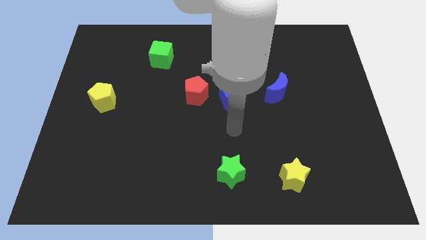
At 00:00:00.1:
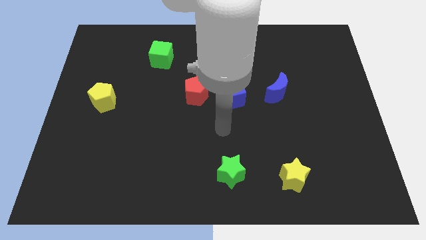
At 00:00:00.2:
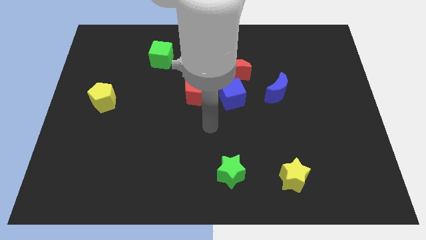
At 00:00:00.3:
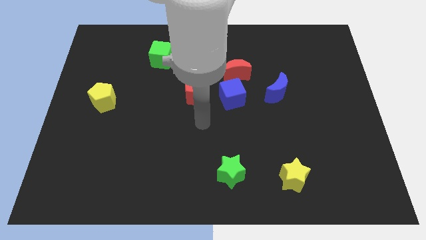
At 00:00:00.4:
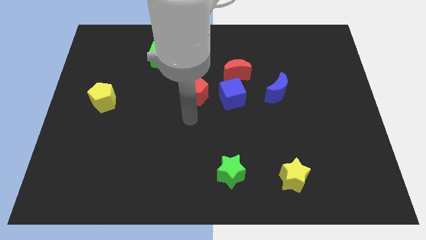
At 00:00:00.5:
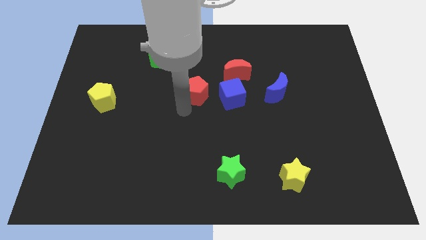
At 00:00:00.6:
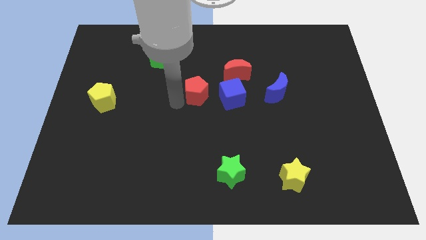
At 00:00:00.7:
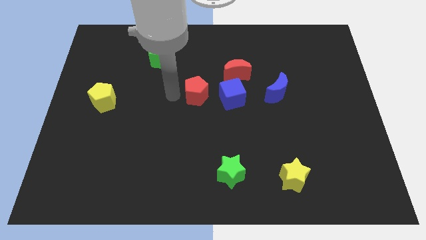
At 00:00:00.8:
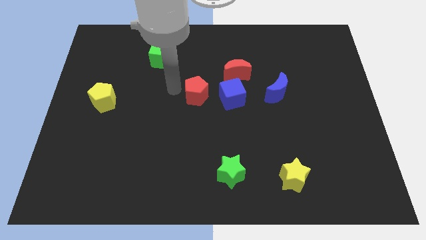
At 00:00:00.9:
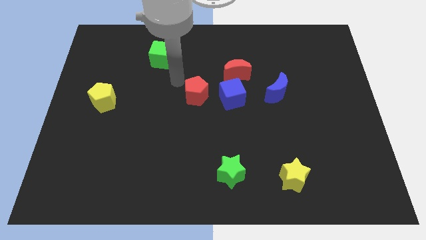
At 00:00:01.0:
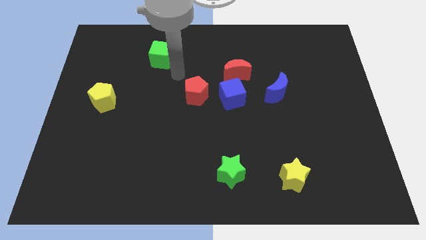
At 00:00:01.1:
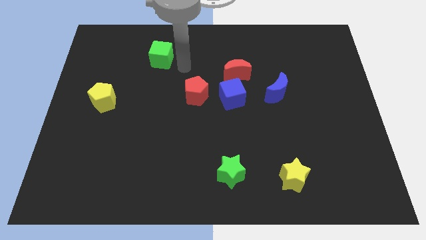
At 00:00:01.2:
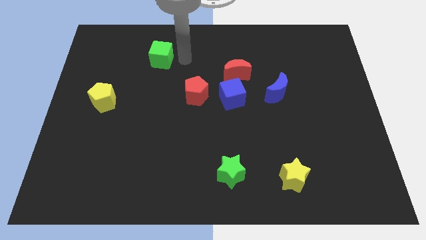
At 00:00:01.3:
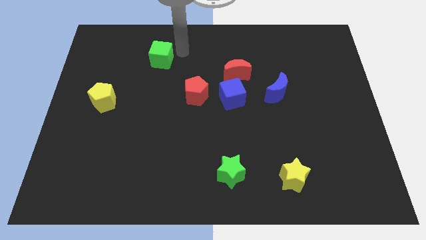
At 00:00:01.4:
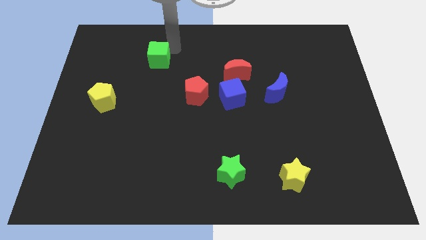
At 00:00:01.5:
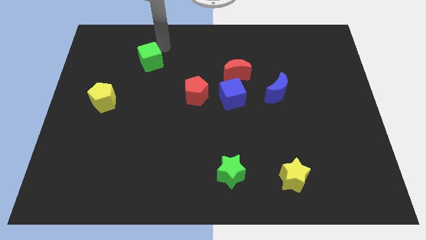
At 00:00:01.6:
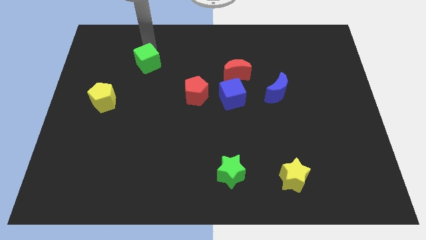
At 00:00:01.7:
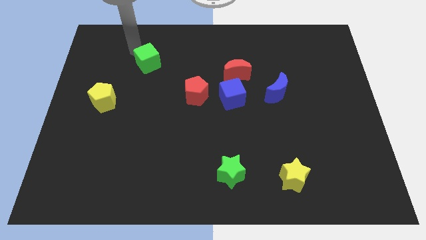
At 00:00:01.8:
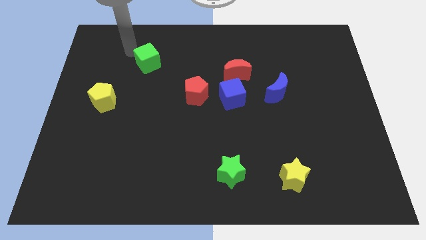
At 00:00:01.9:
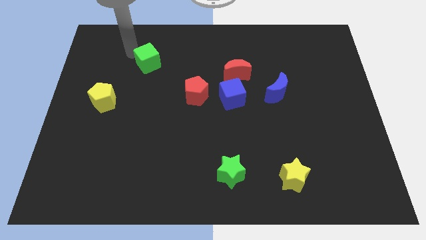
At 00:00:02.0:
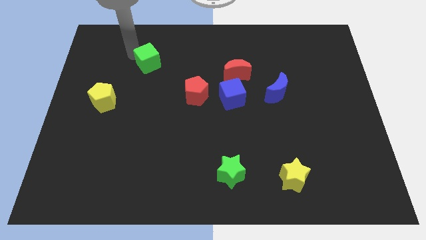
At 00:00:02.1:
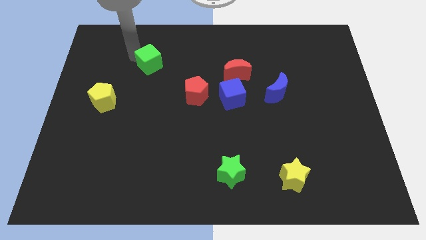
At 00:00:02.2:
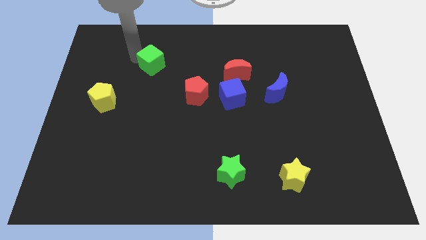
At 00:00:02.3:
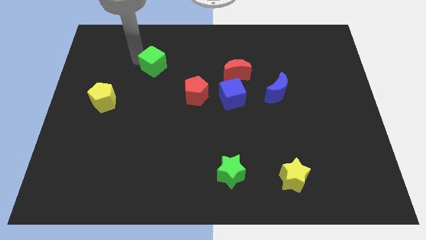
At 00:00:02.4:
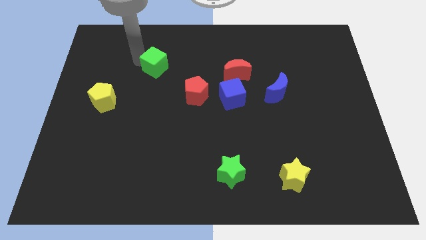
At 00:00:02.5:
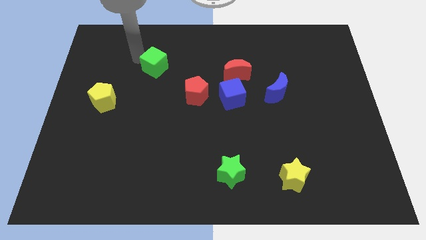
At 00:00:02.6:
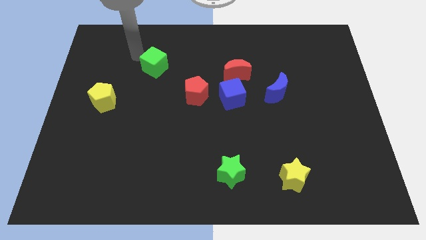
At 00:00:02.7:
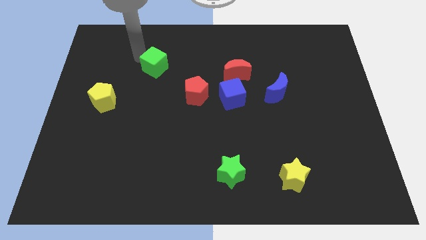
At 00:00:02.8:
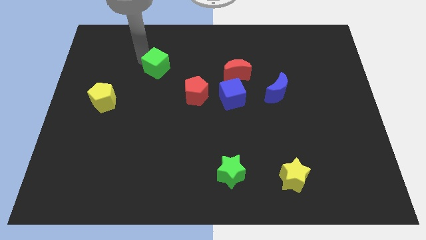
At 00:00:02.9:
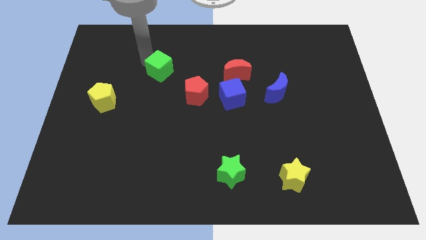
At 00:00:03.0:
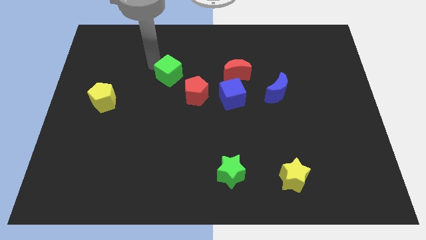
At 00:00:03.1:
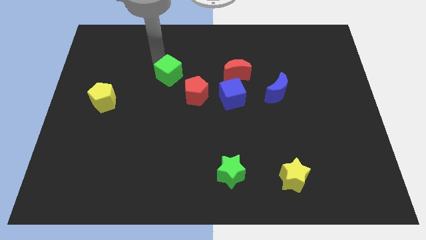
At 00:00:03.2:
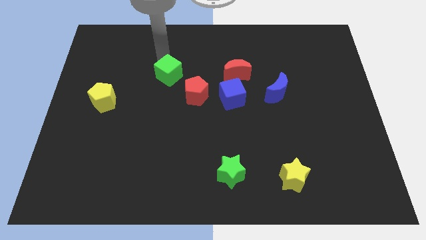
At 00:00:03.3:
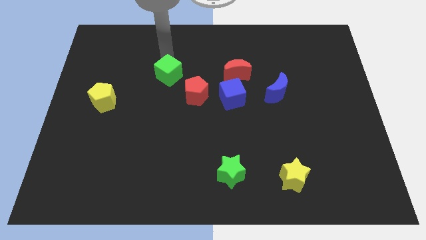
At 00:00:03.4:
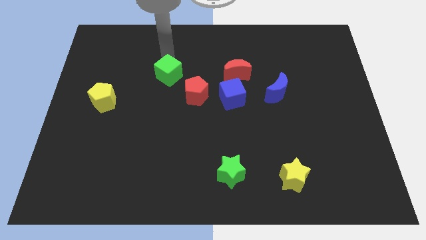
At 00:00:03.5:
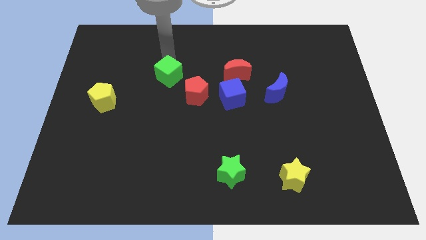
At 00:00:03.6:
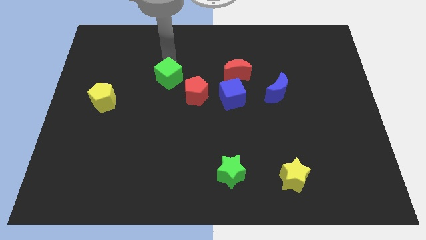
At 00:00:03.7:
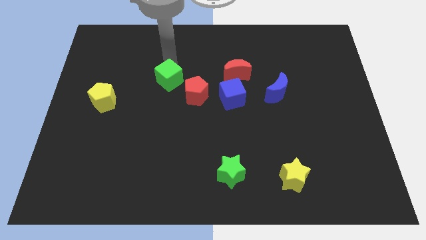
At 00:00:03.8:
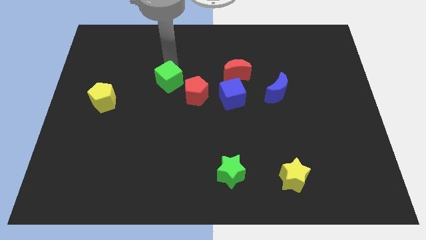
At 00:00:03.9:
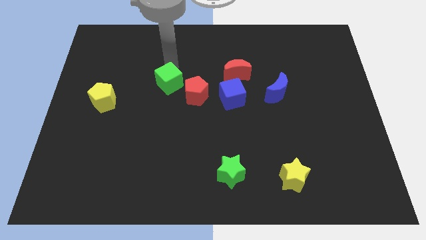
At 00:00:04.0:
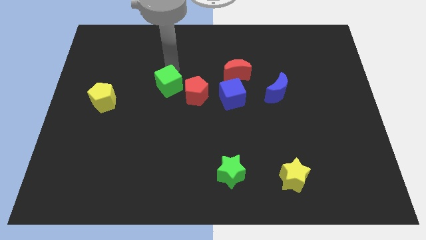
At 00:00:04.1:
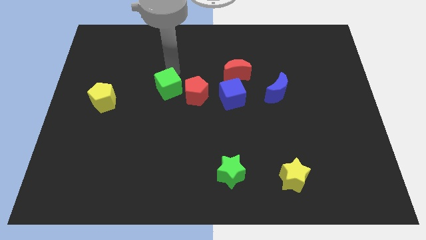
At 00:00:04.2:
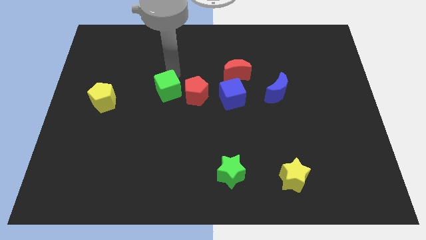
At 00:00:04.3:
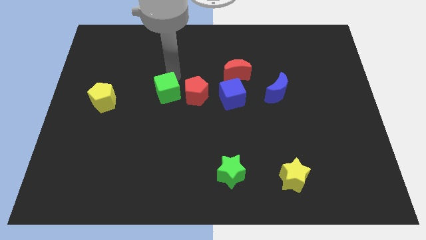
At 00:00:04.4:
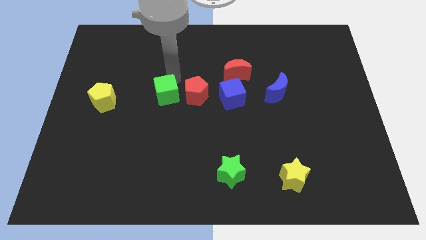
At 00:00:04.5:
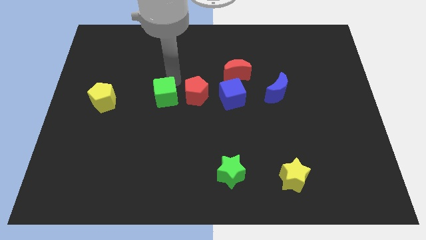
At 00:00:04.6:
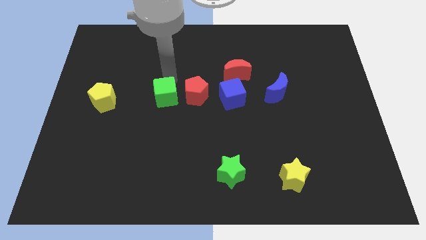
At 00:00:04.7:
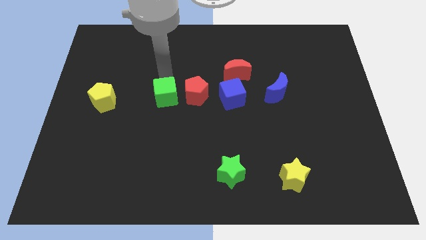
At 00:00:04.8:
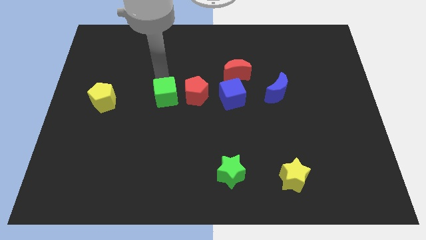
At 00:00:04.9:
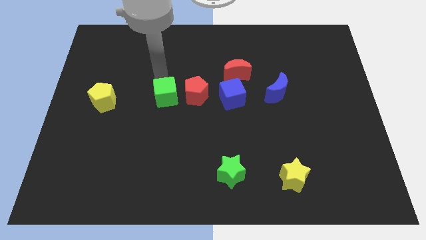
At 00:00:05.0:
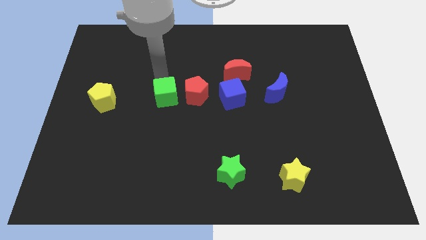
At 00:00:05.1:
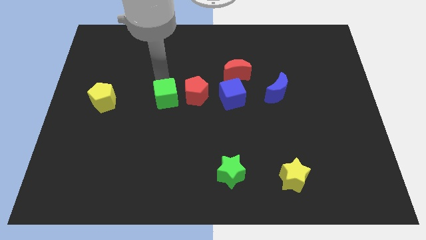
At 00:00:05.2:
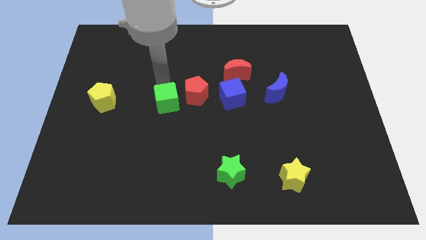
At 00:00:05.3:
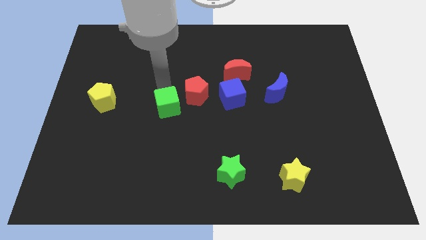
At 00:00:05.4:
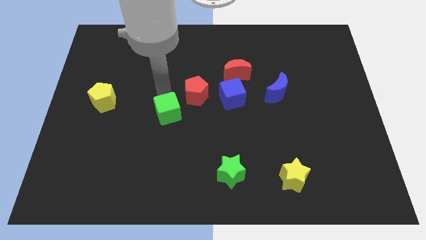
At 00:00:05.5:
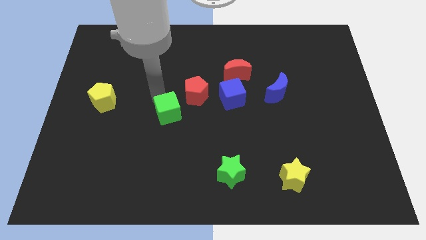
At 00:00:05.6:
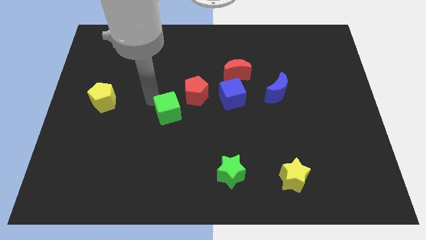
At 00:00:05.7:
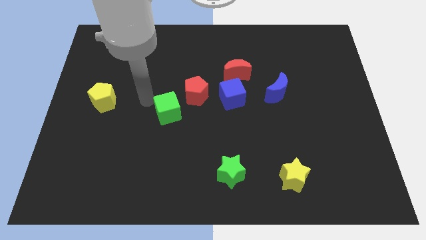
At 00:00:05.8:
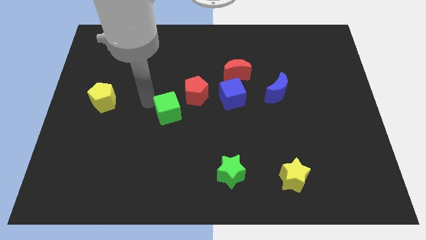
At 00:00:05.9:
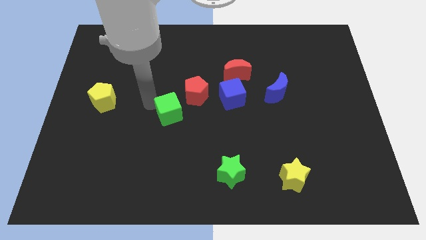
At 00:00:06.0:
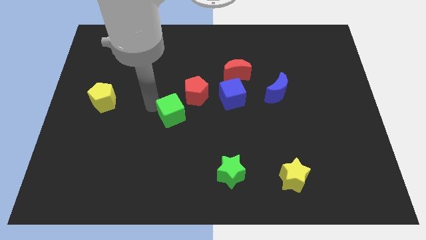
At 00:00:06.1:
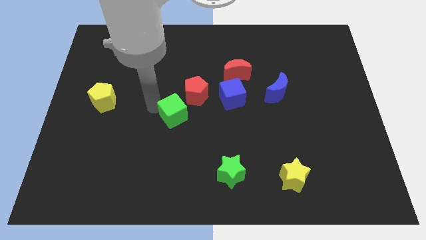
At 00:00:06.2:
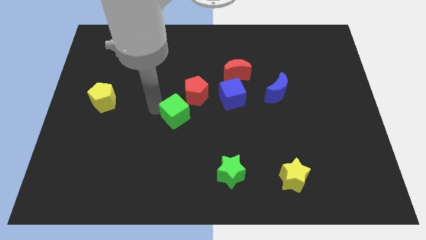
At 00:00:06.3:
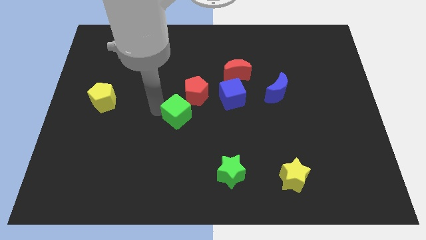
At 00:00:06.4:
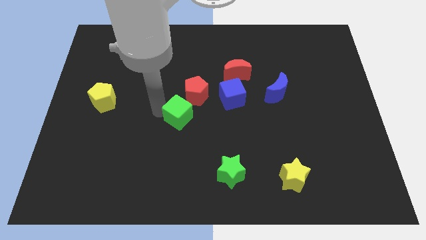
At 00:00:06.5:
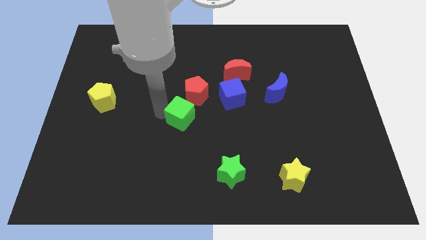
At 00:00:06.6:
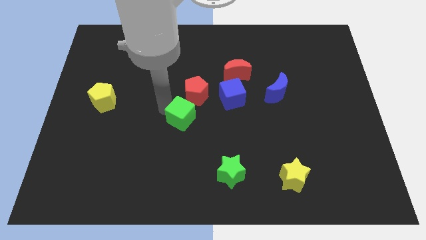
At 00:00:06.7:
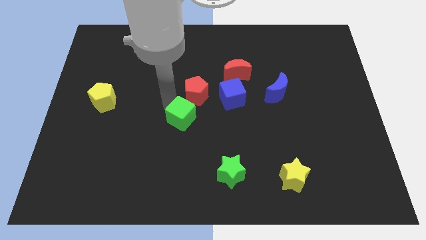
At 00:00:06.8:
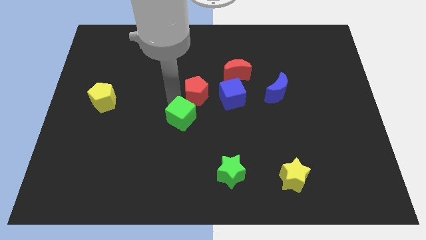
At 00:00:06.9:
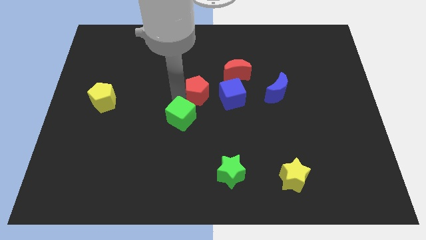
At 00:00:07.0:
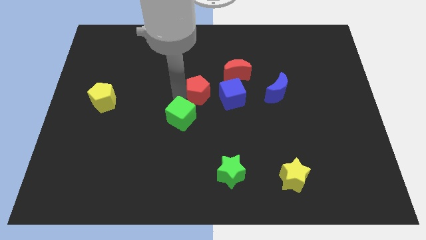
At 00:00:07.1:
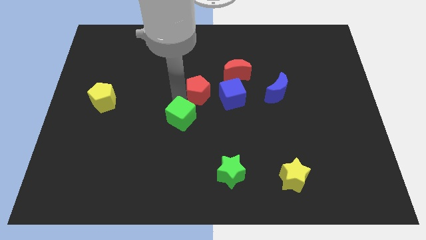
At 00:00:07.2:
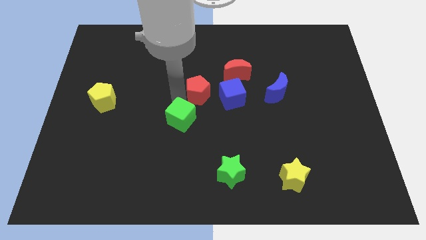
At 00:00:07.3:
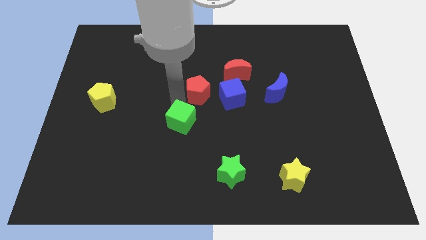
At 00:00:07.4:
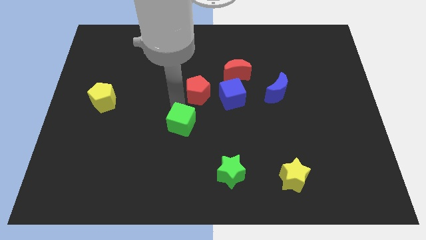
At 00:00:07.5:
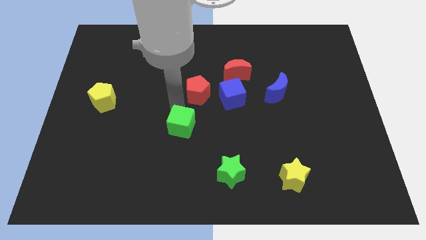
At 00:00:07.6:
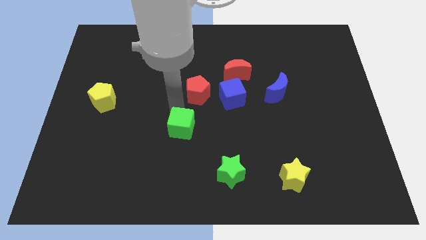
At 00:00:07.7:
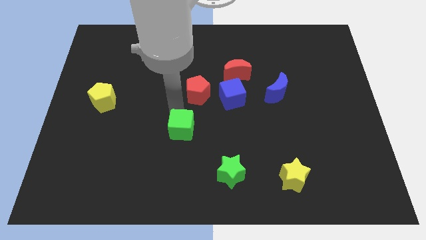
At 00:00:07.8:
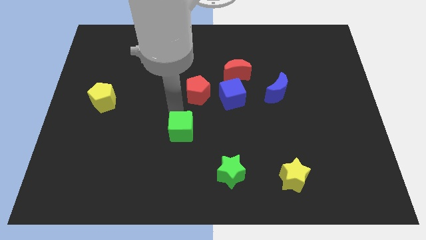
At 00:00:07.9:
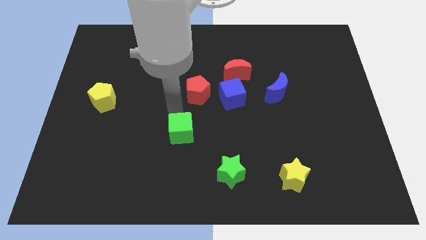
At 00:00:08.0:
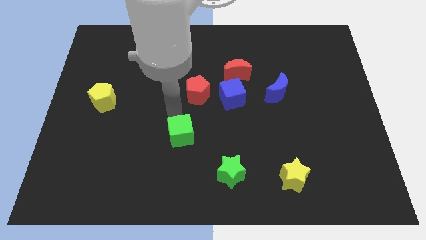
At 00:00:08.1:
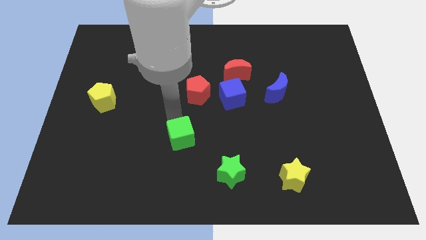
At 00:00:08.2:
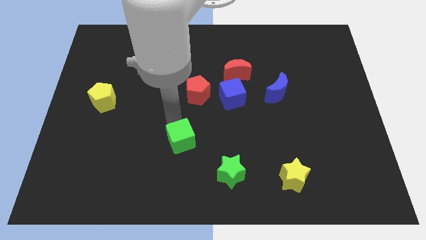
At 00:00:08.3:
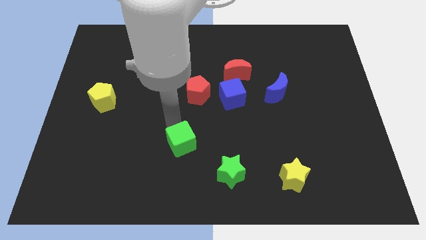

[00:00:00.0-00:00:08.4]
put the green cube diagonally up and to the left of the green star
